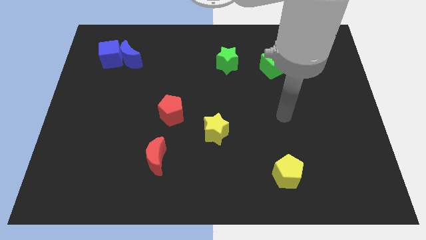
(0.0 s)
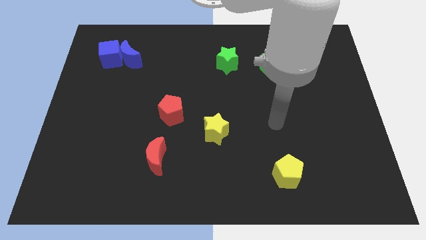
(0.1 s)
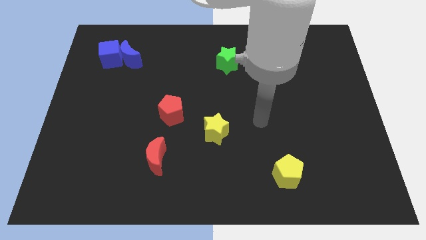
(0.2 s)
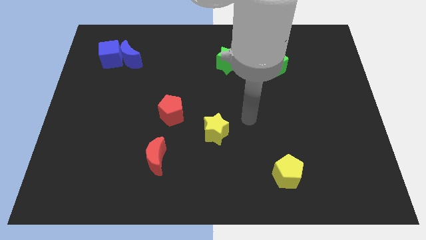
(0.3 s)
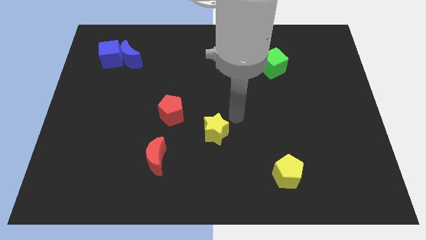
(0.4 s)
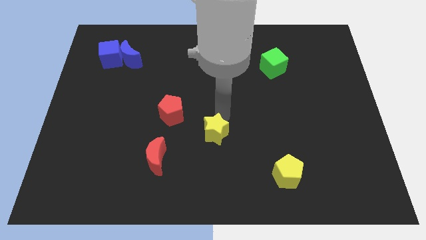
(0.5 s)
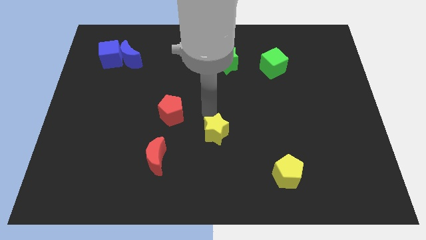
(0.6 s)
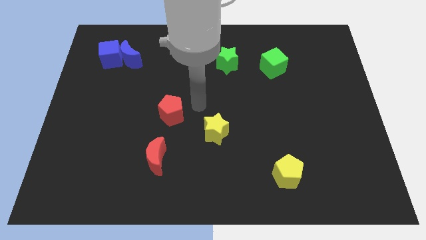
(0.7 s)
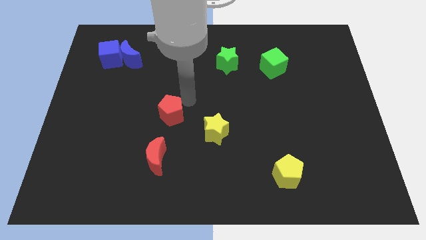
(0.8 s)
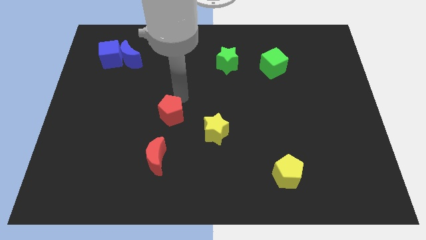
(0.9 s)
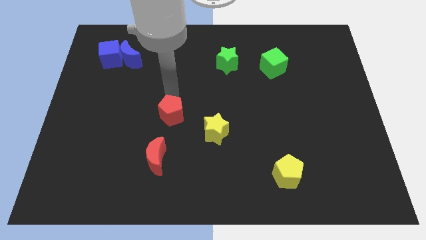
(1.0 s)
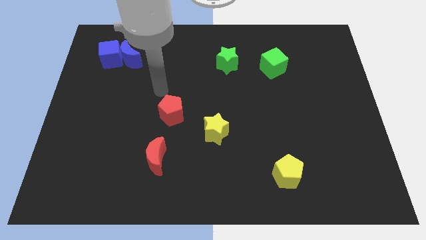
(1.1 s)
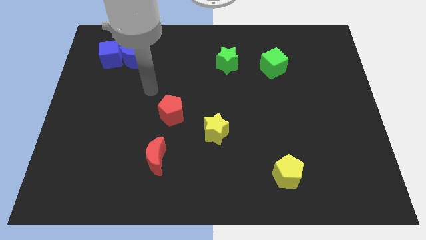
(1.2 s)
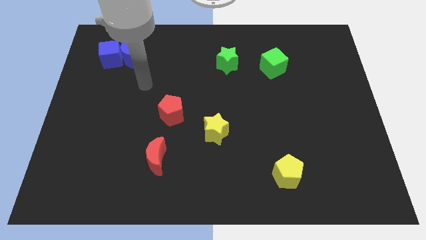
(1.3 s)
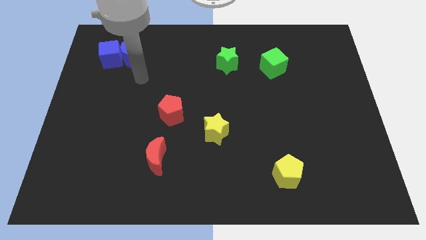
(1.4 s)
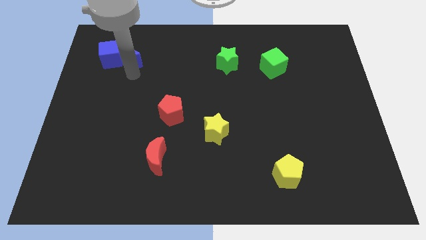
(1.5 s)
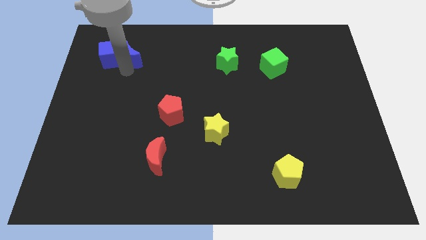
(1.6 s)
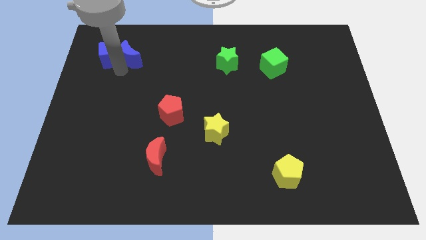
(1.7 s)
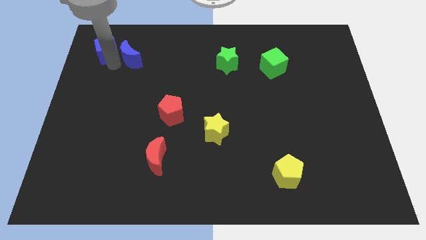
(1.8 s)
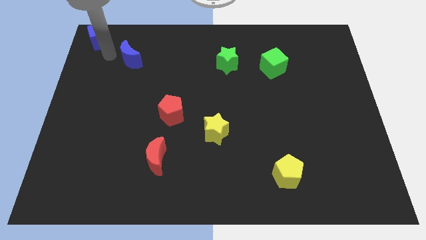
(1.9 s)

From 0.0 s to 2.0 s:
separate the blue moon from the blue cube

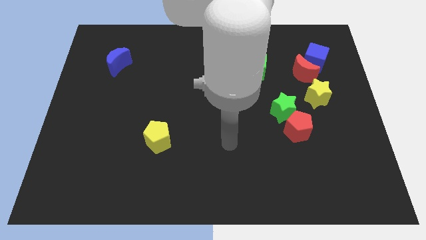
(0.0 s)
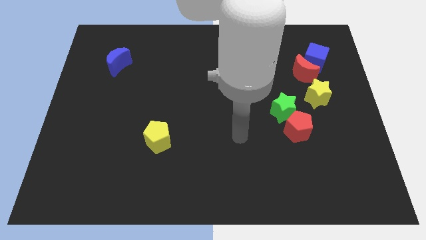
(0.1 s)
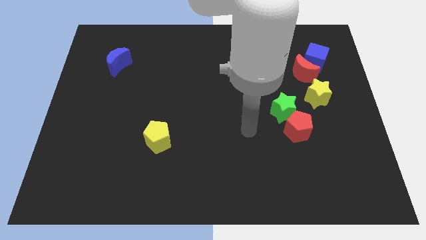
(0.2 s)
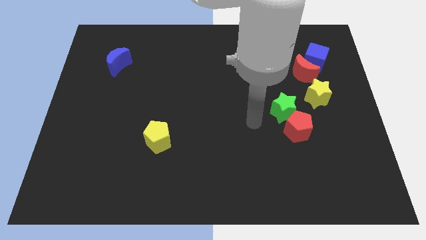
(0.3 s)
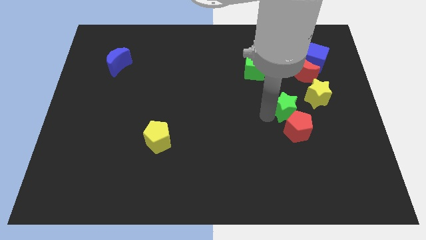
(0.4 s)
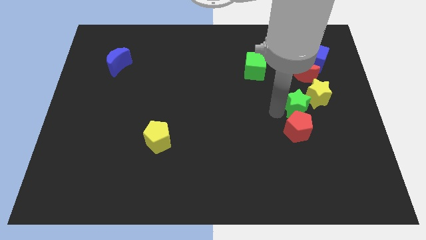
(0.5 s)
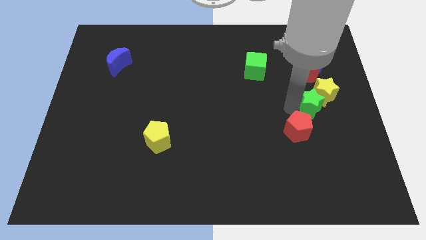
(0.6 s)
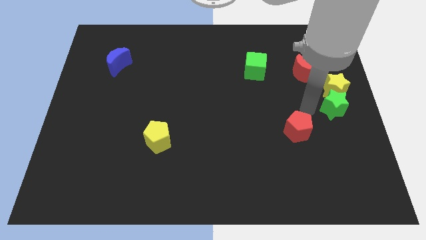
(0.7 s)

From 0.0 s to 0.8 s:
separate the red pentagon from the green star

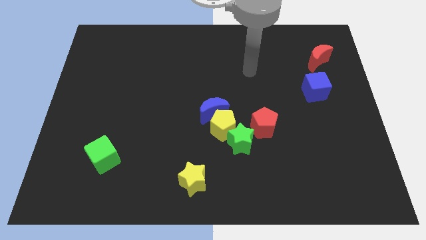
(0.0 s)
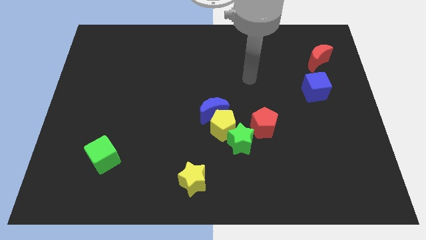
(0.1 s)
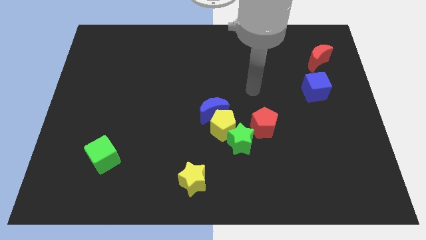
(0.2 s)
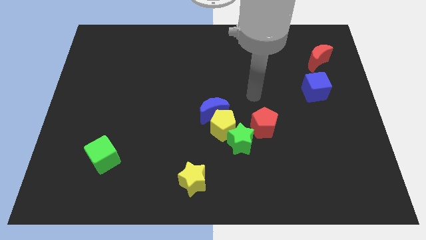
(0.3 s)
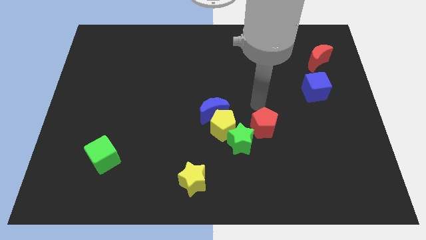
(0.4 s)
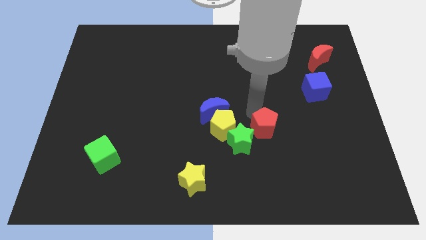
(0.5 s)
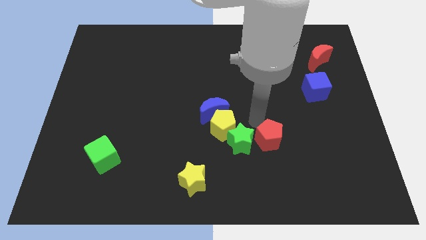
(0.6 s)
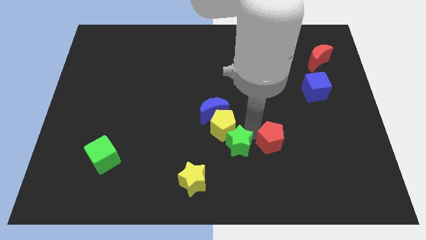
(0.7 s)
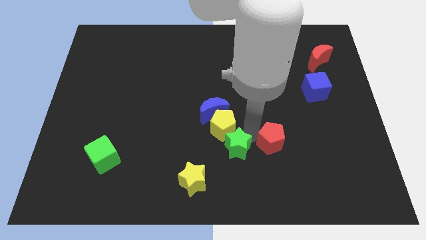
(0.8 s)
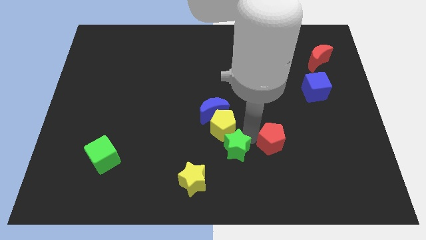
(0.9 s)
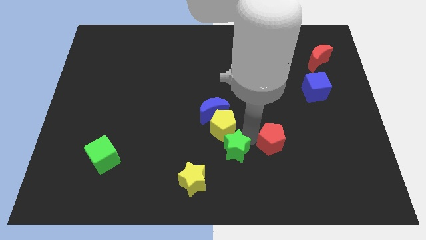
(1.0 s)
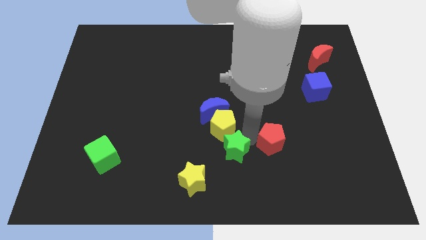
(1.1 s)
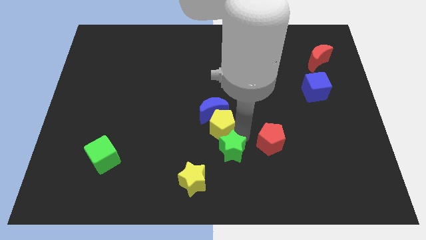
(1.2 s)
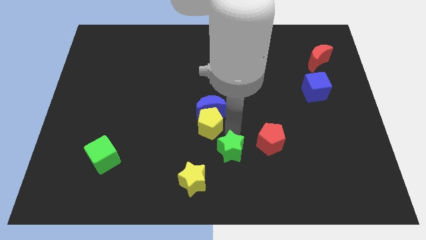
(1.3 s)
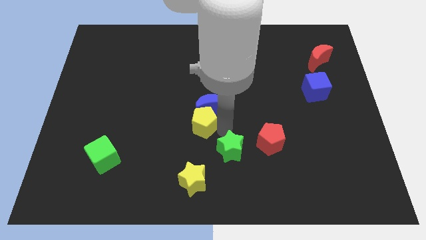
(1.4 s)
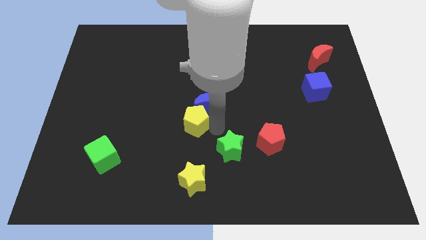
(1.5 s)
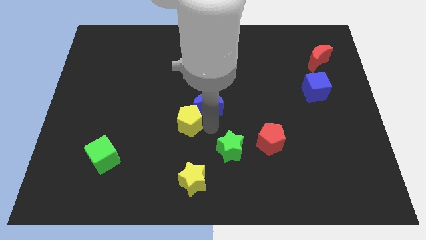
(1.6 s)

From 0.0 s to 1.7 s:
pull the yellow pentagon apart from the blue moon, green star, and red pentagon

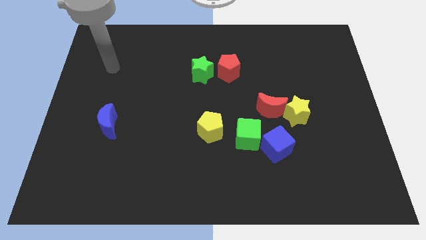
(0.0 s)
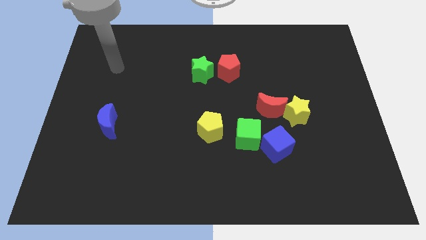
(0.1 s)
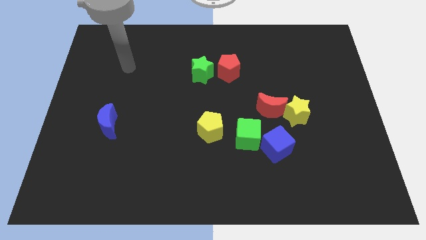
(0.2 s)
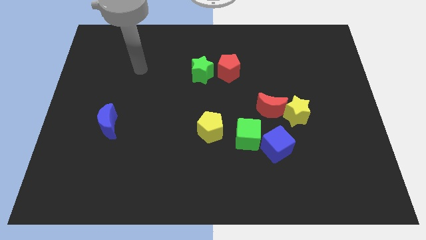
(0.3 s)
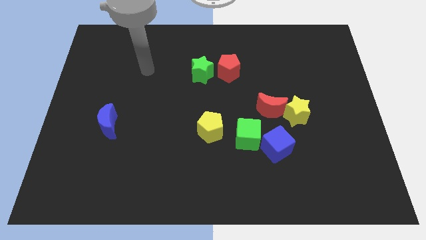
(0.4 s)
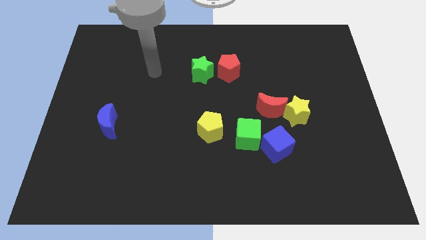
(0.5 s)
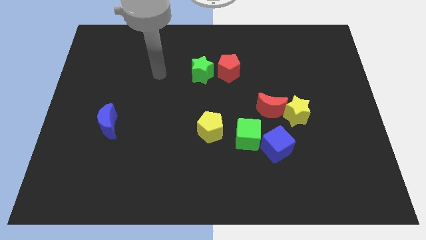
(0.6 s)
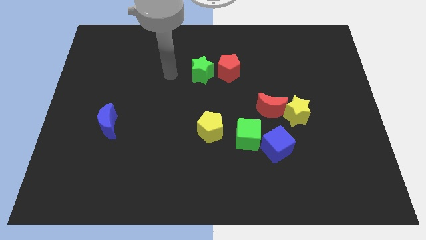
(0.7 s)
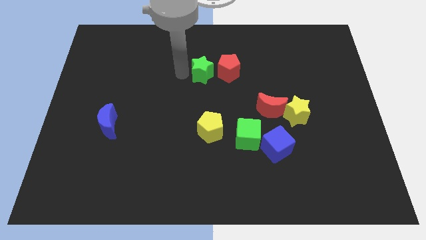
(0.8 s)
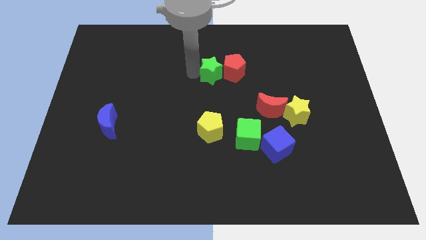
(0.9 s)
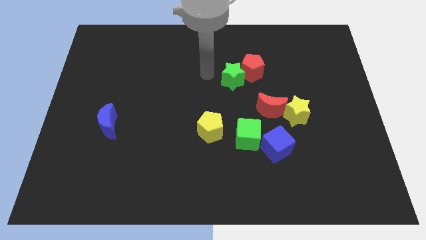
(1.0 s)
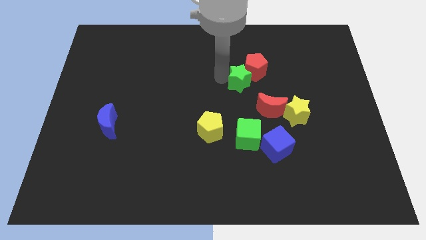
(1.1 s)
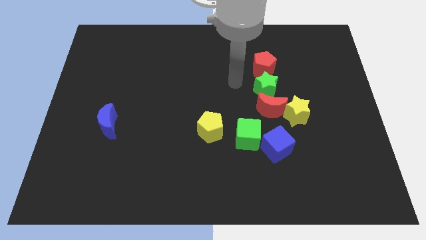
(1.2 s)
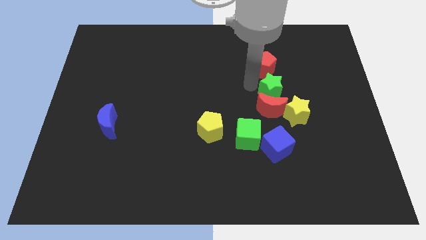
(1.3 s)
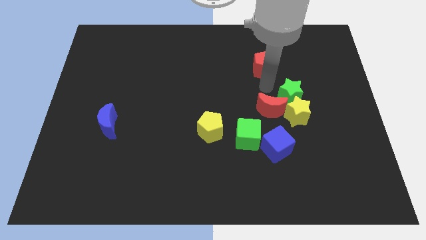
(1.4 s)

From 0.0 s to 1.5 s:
move the red pentagon away from the green star

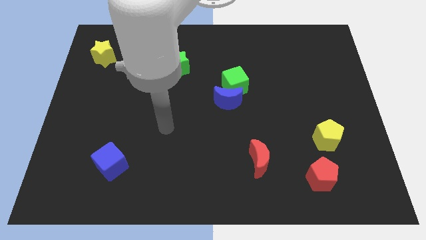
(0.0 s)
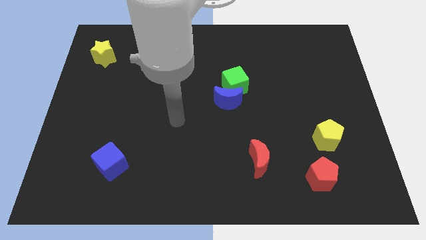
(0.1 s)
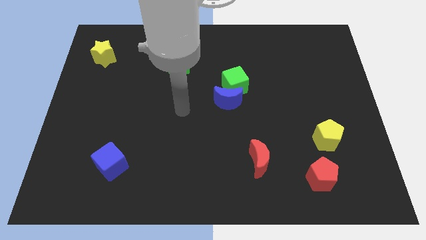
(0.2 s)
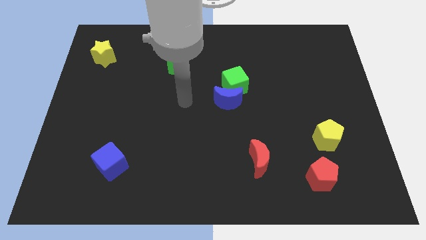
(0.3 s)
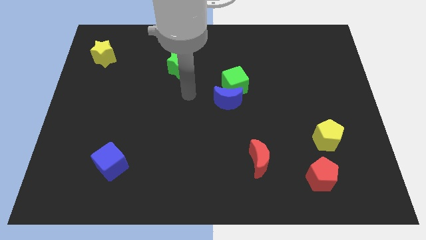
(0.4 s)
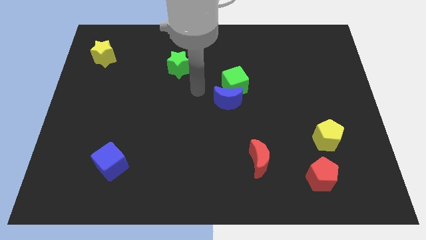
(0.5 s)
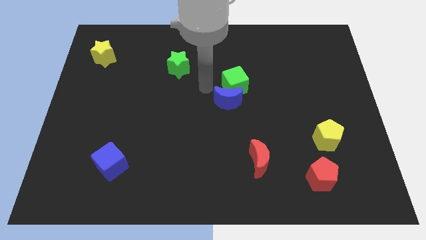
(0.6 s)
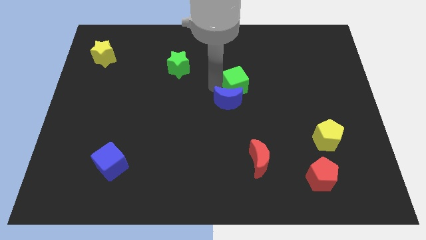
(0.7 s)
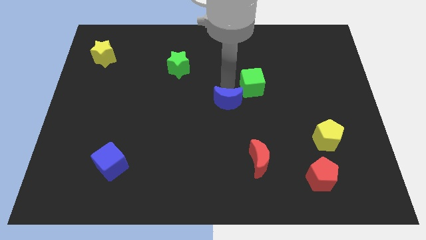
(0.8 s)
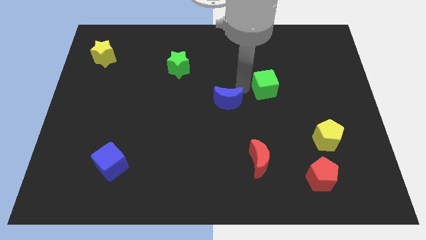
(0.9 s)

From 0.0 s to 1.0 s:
pull the blue moon apart from the green cube

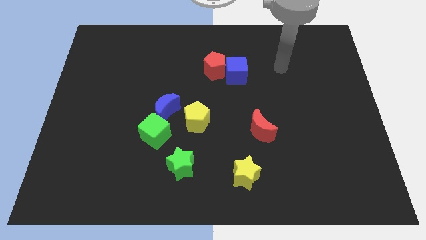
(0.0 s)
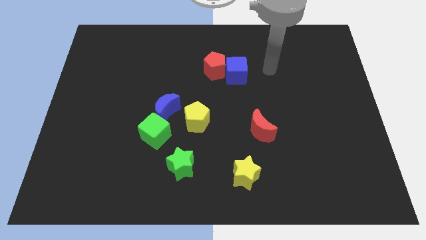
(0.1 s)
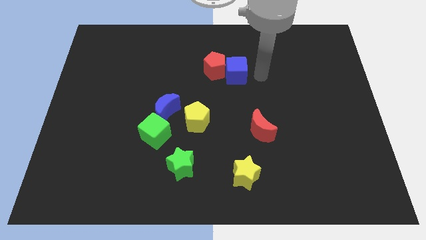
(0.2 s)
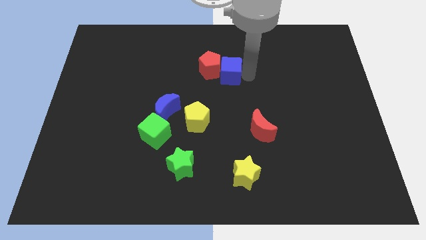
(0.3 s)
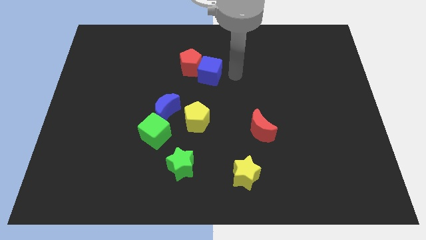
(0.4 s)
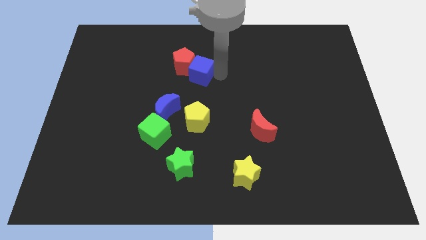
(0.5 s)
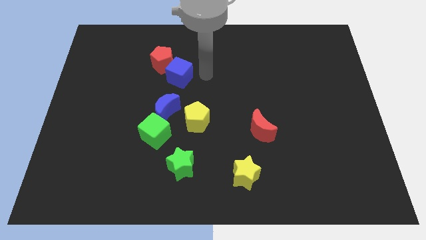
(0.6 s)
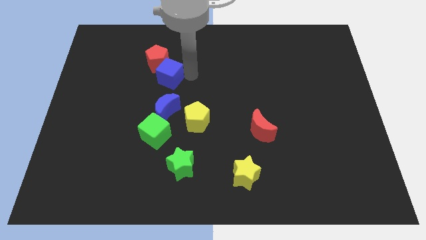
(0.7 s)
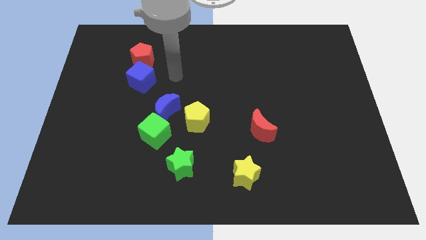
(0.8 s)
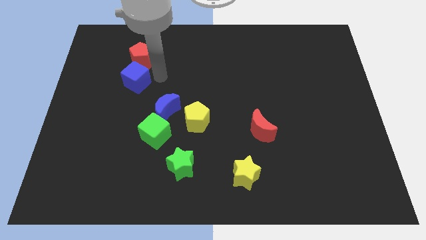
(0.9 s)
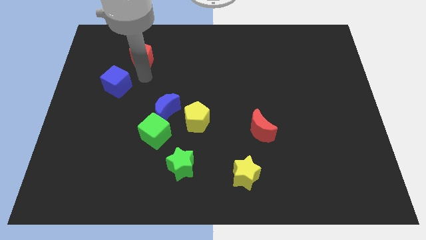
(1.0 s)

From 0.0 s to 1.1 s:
separate the red pentagon from the blue cube

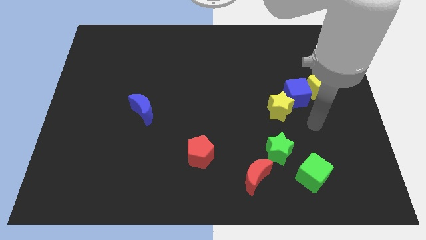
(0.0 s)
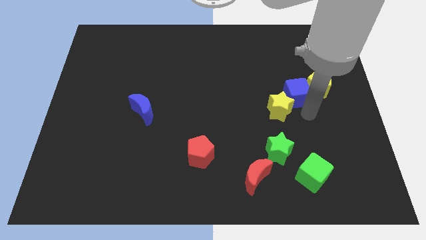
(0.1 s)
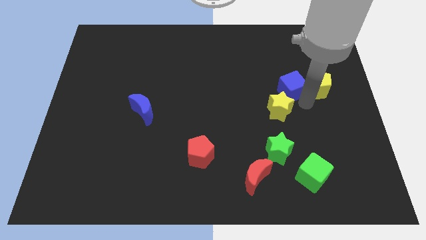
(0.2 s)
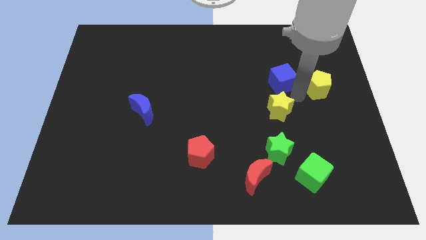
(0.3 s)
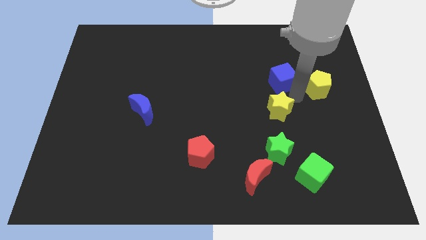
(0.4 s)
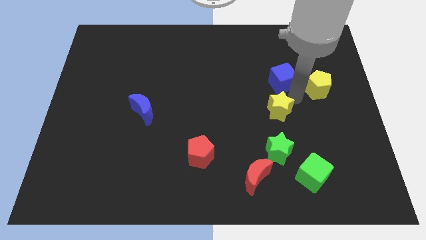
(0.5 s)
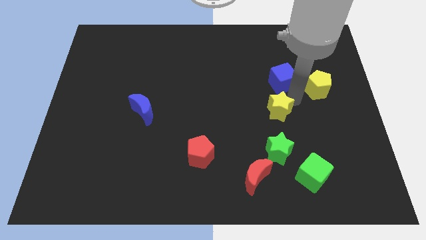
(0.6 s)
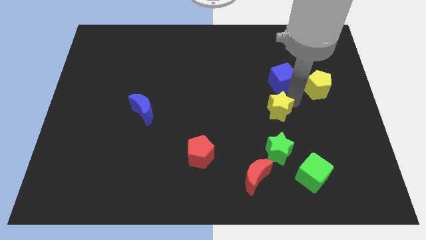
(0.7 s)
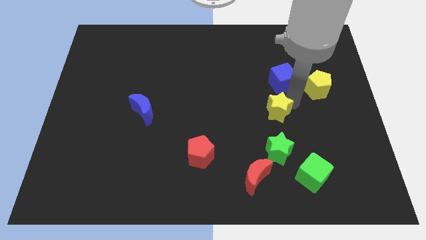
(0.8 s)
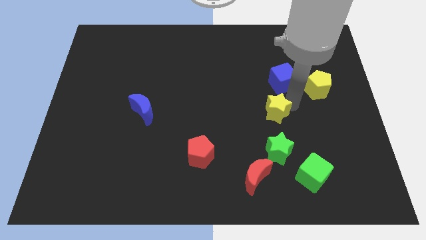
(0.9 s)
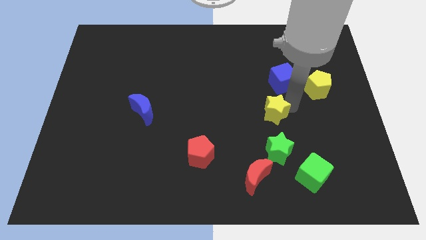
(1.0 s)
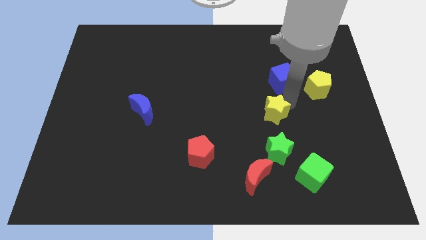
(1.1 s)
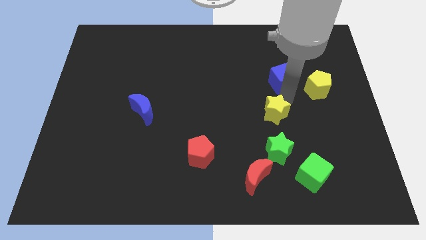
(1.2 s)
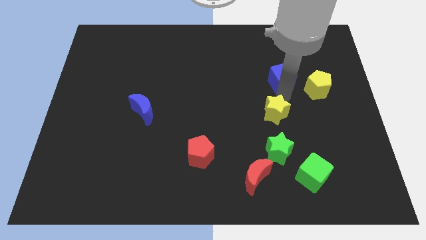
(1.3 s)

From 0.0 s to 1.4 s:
separate the yellow star from the blue cube
